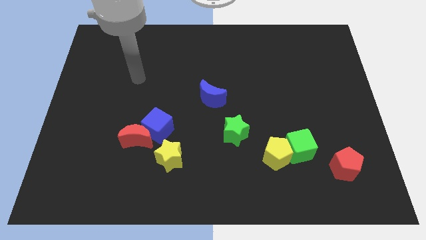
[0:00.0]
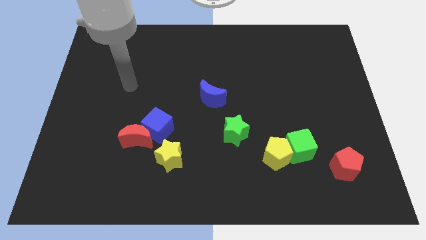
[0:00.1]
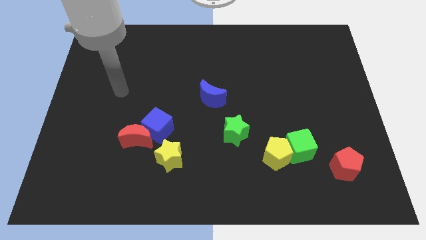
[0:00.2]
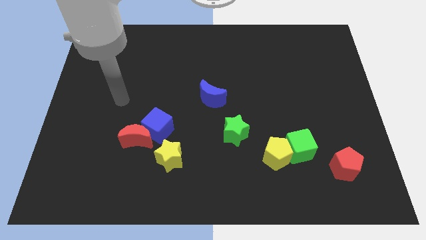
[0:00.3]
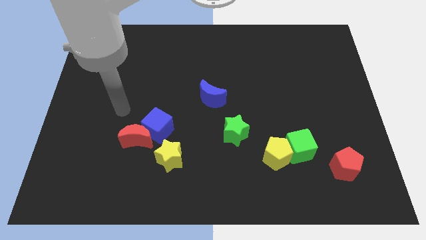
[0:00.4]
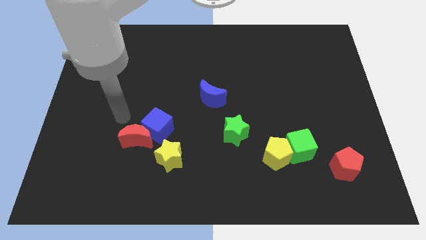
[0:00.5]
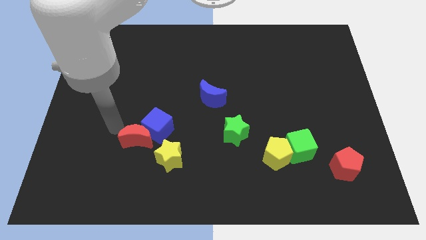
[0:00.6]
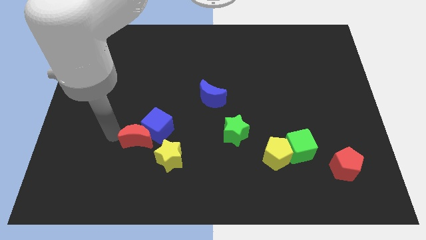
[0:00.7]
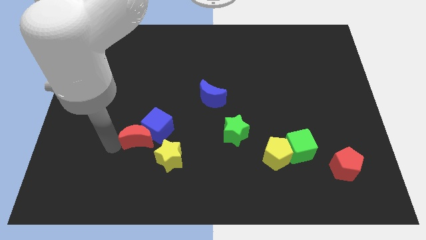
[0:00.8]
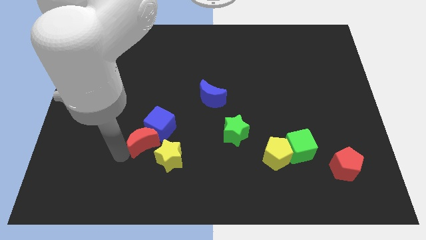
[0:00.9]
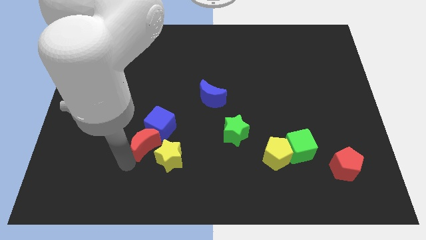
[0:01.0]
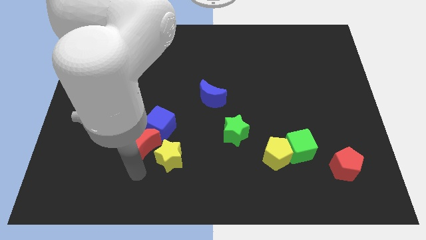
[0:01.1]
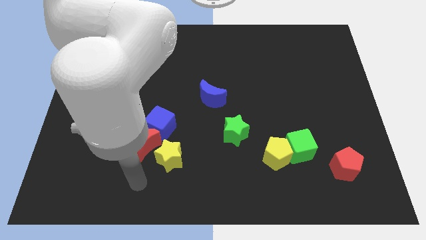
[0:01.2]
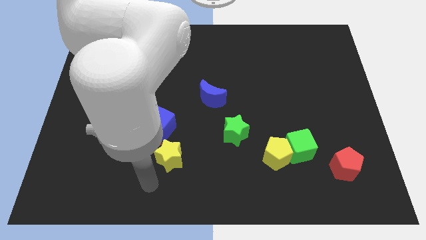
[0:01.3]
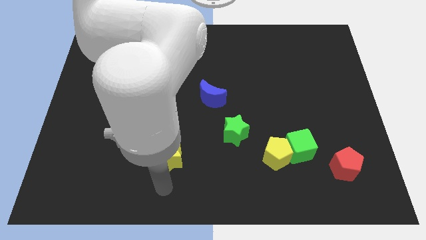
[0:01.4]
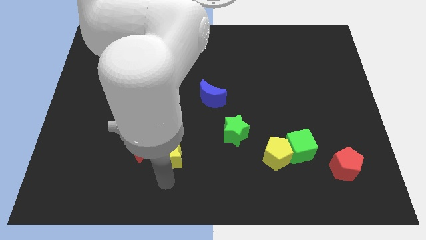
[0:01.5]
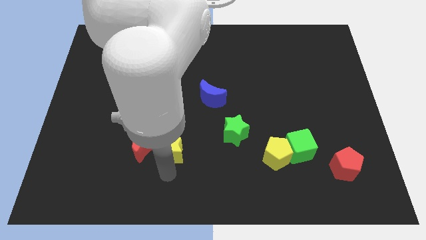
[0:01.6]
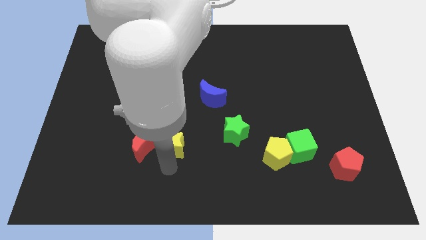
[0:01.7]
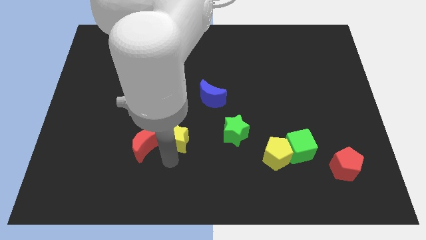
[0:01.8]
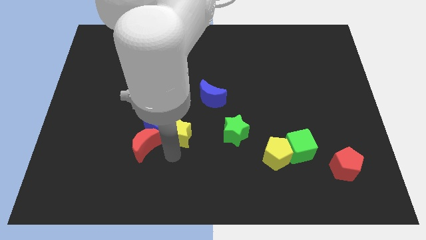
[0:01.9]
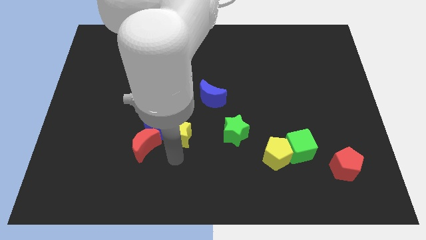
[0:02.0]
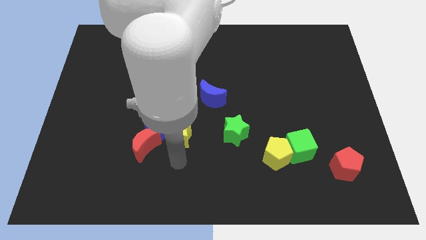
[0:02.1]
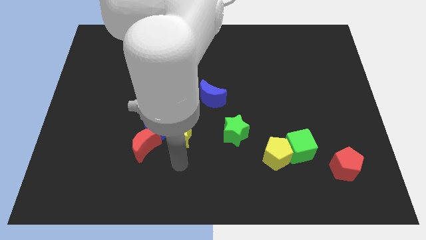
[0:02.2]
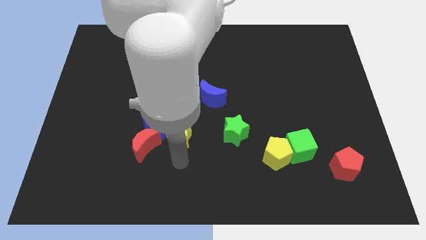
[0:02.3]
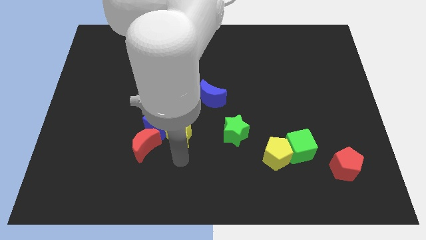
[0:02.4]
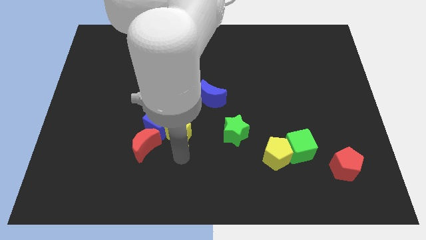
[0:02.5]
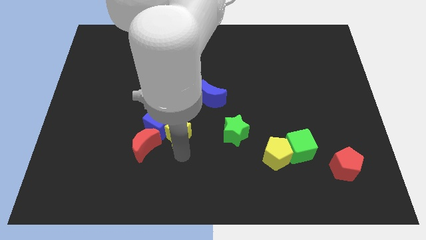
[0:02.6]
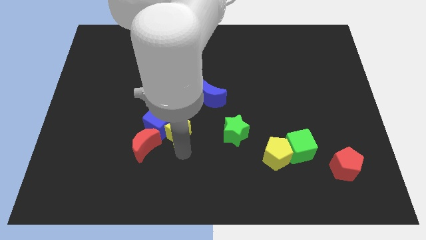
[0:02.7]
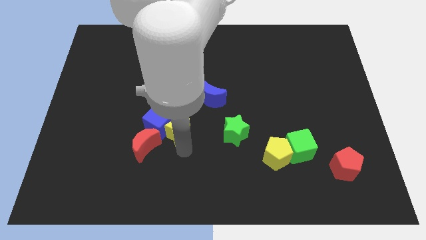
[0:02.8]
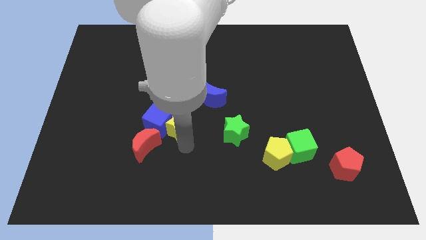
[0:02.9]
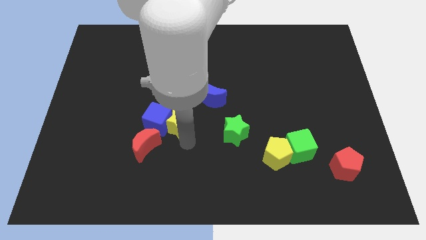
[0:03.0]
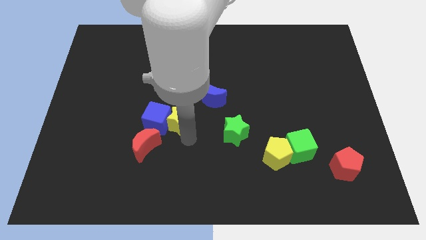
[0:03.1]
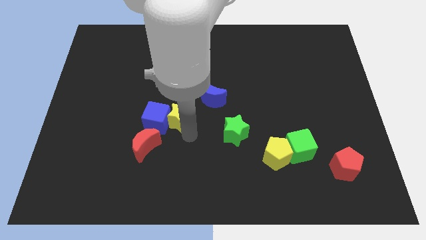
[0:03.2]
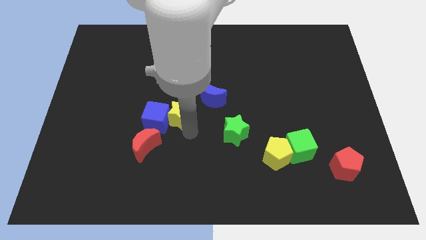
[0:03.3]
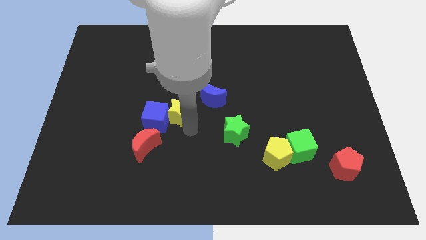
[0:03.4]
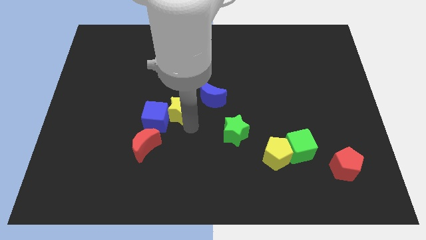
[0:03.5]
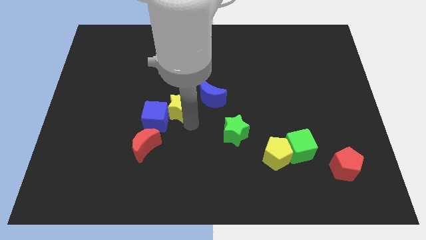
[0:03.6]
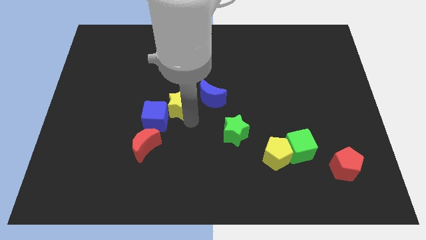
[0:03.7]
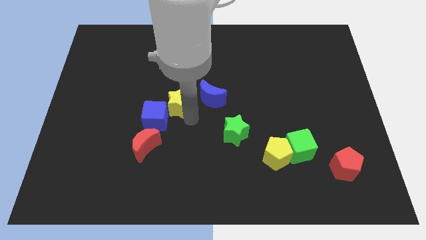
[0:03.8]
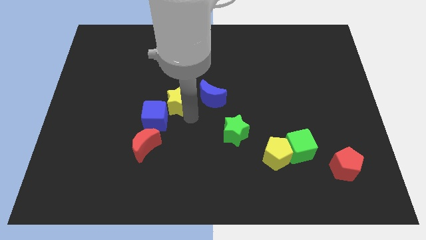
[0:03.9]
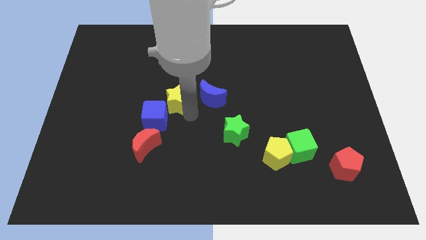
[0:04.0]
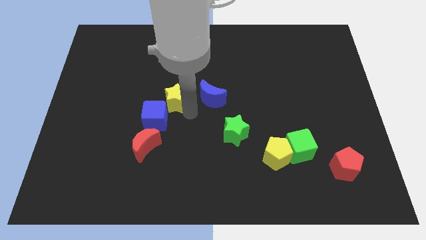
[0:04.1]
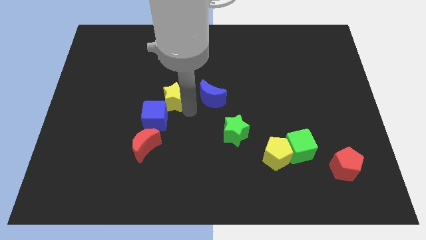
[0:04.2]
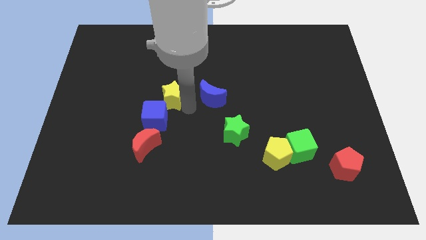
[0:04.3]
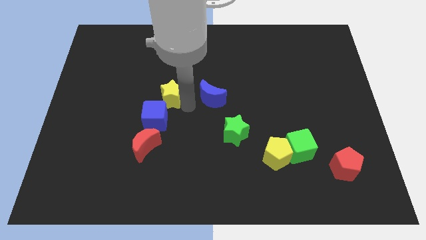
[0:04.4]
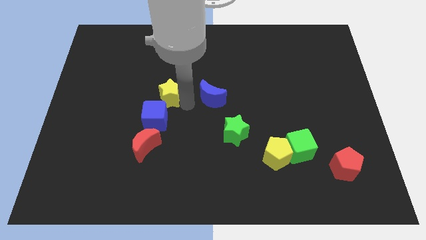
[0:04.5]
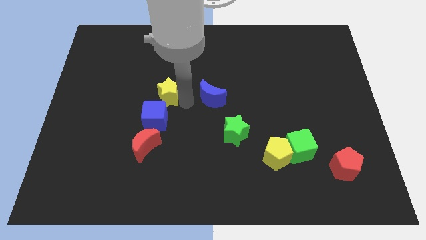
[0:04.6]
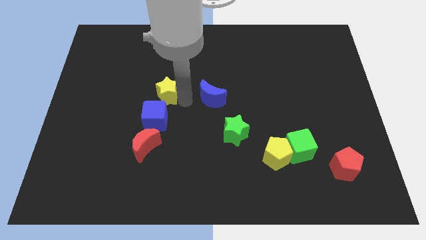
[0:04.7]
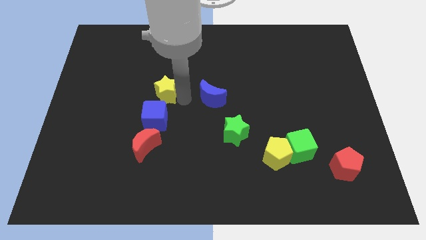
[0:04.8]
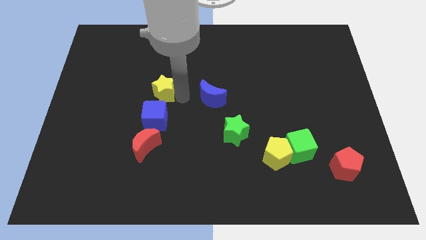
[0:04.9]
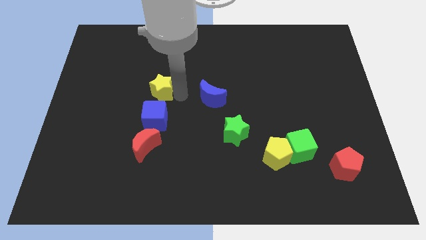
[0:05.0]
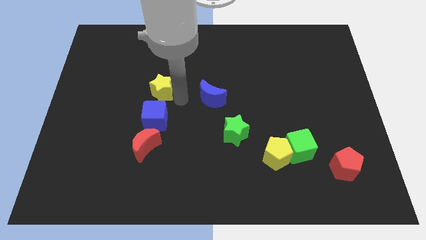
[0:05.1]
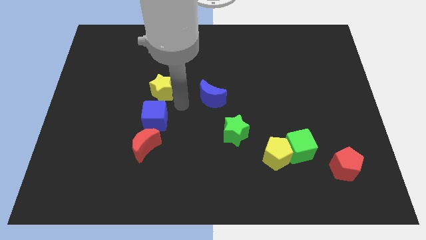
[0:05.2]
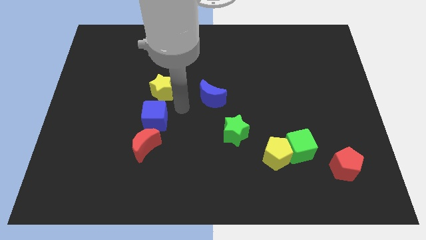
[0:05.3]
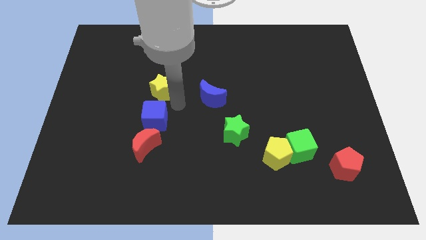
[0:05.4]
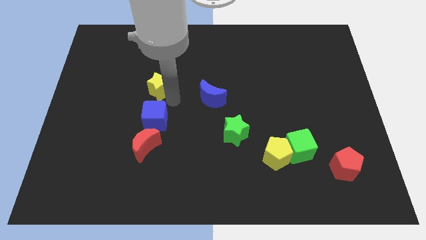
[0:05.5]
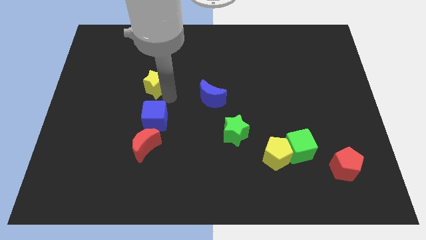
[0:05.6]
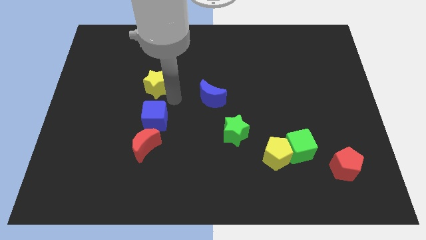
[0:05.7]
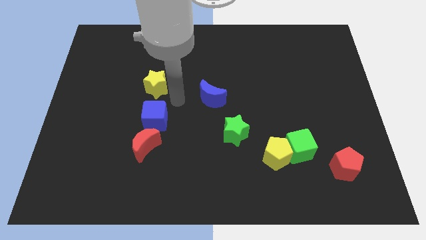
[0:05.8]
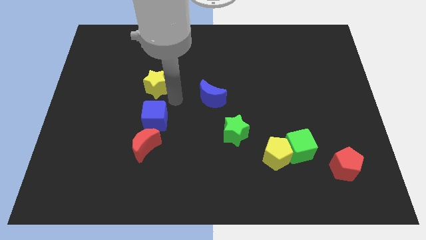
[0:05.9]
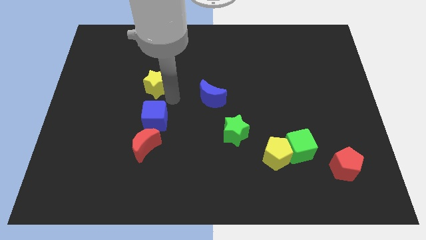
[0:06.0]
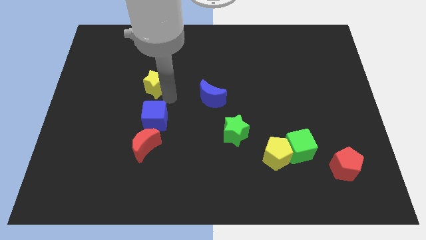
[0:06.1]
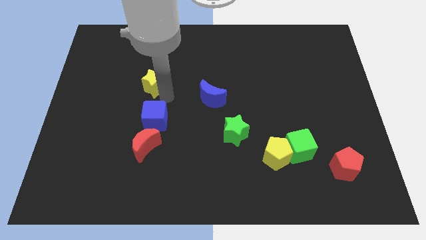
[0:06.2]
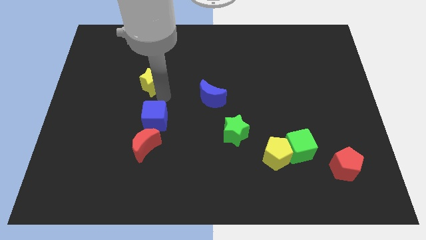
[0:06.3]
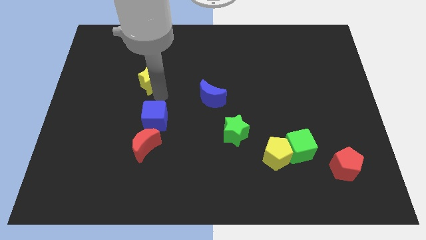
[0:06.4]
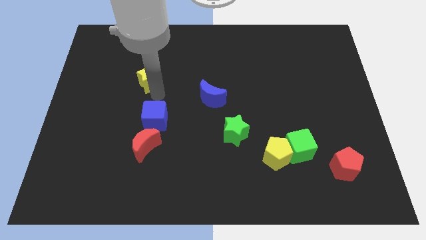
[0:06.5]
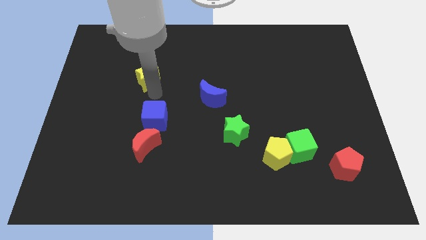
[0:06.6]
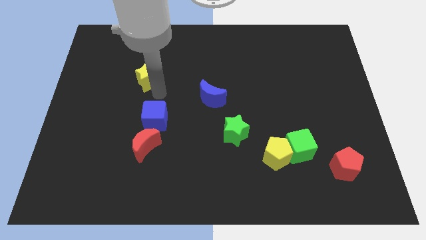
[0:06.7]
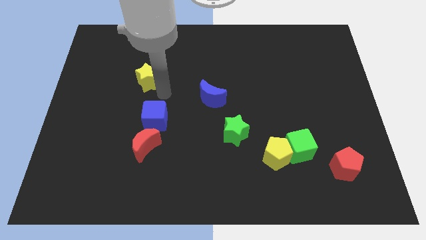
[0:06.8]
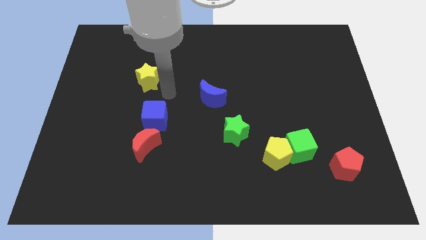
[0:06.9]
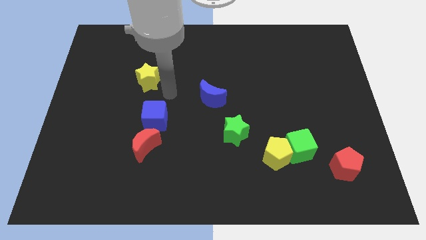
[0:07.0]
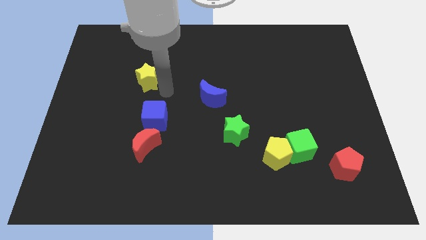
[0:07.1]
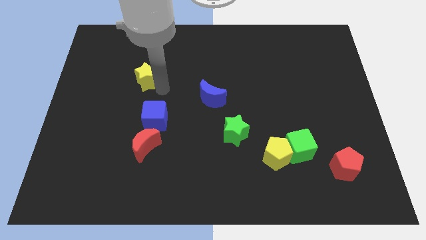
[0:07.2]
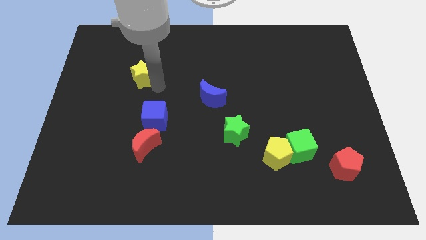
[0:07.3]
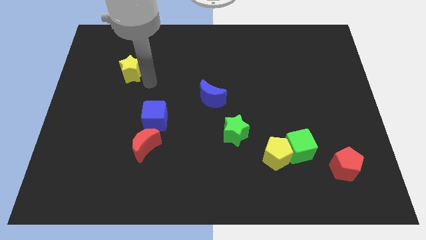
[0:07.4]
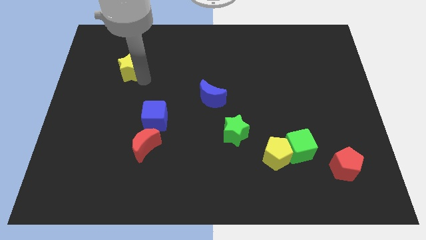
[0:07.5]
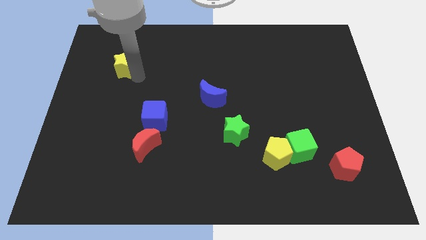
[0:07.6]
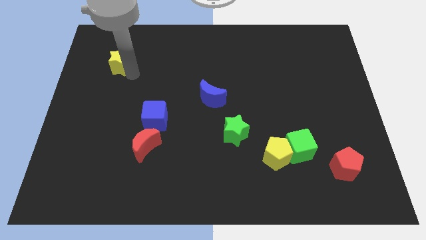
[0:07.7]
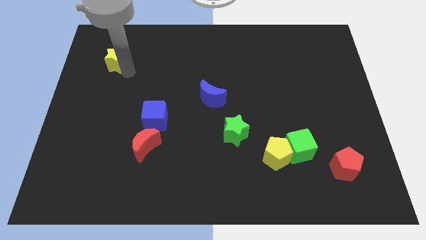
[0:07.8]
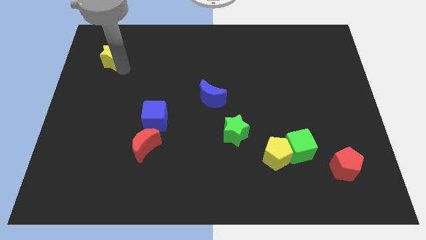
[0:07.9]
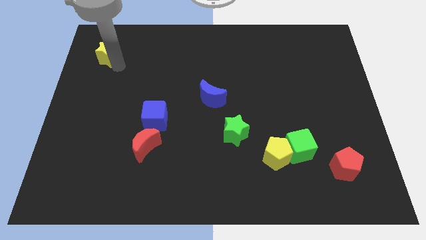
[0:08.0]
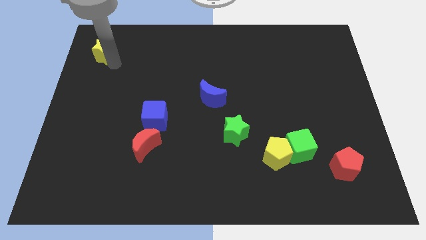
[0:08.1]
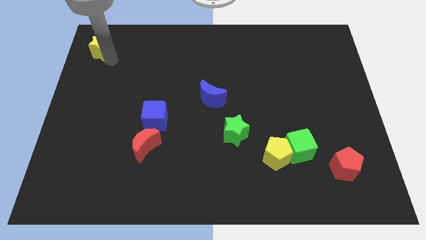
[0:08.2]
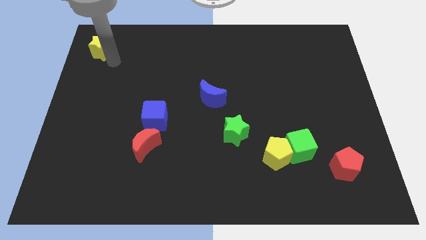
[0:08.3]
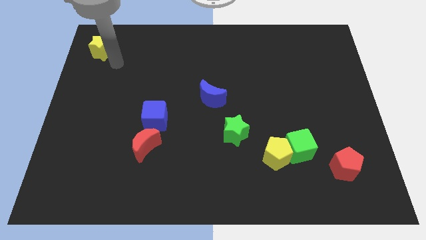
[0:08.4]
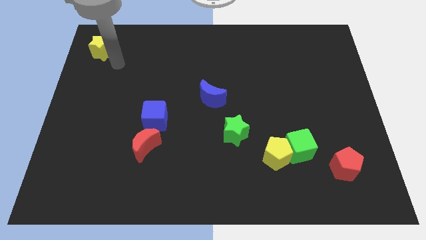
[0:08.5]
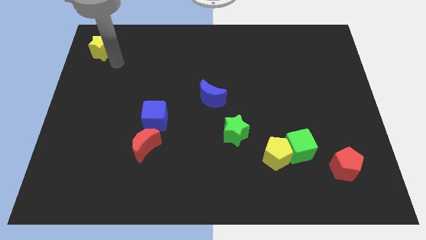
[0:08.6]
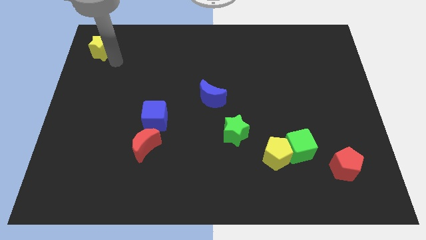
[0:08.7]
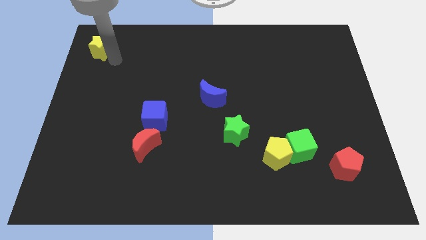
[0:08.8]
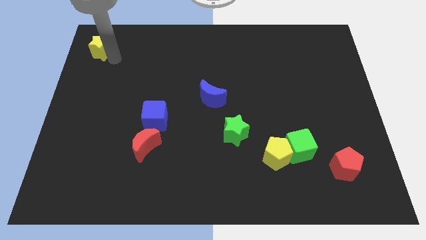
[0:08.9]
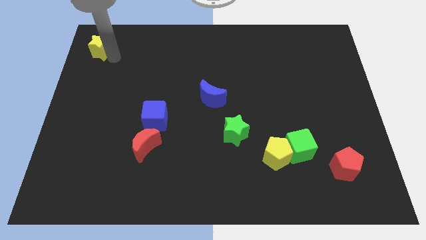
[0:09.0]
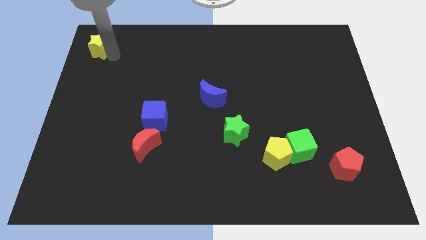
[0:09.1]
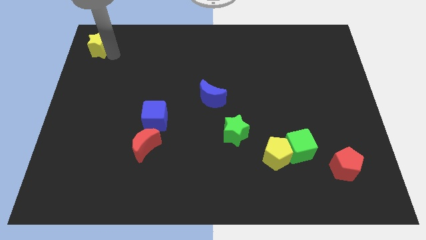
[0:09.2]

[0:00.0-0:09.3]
move the yellow star to the top left corner
